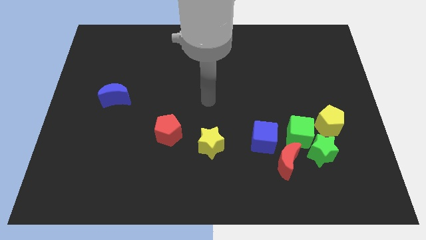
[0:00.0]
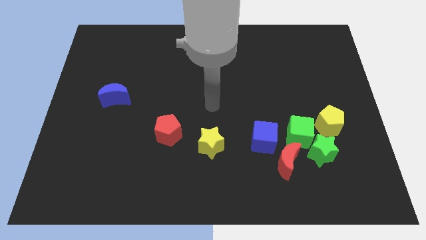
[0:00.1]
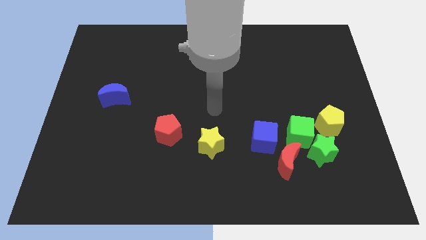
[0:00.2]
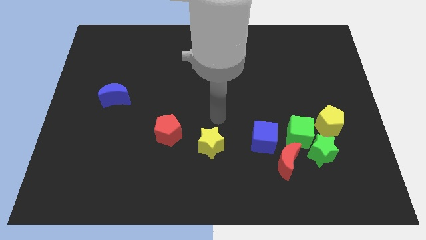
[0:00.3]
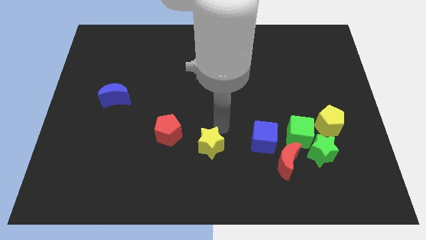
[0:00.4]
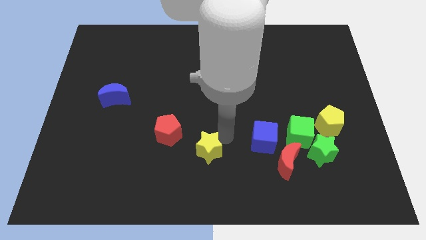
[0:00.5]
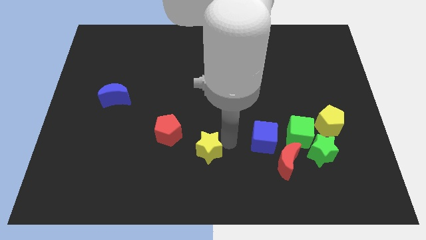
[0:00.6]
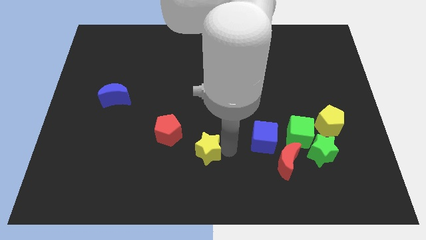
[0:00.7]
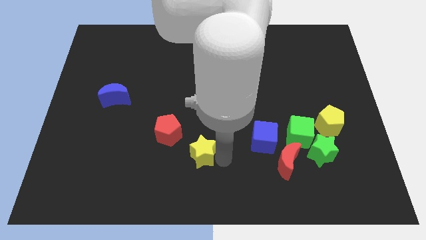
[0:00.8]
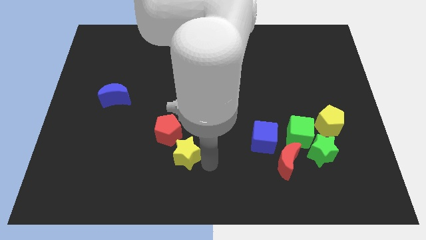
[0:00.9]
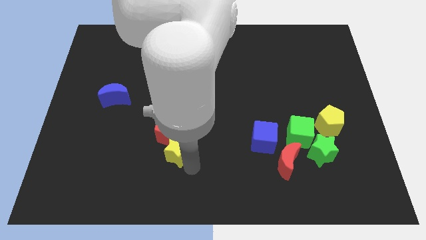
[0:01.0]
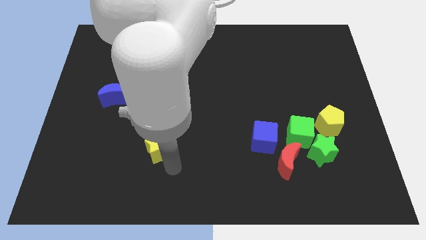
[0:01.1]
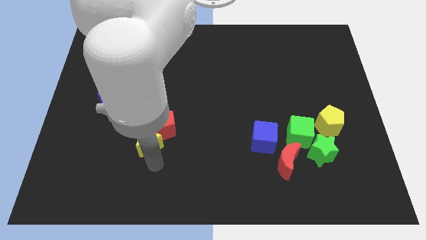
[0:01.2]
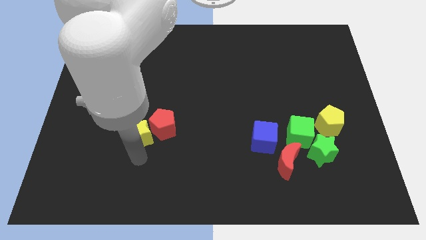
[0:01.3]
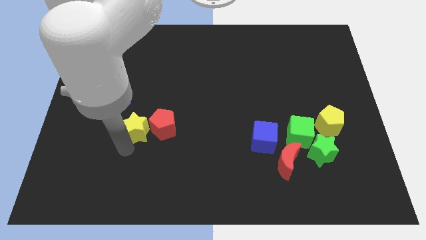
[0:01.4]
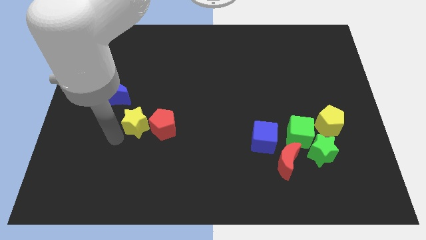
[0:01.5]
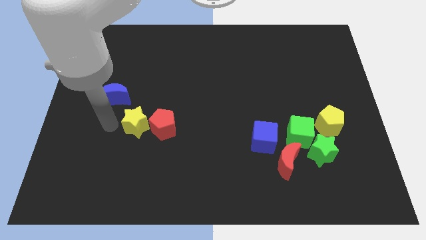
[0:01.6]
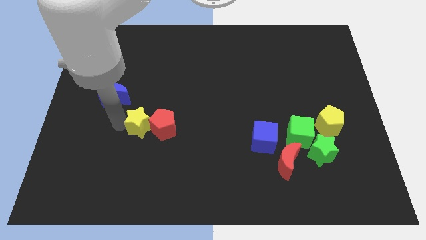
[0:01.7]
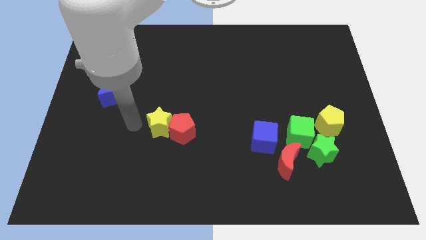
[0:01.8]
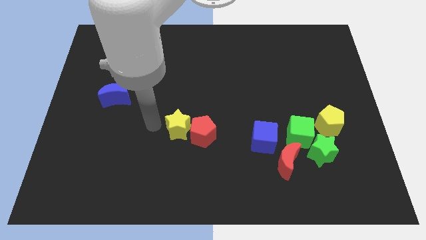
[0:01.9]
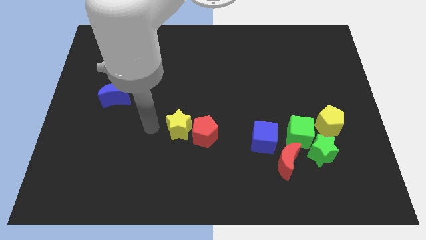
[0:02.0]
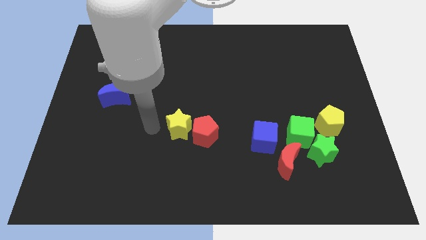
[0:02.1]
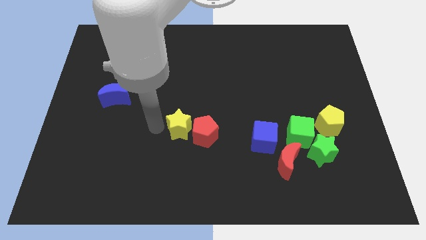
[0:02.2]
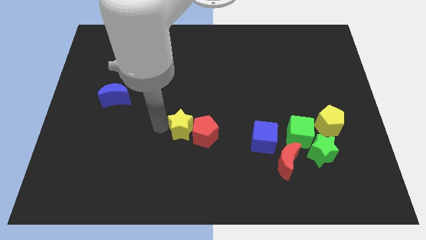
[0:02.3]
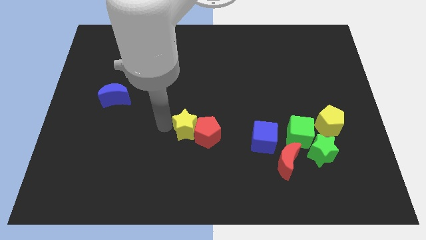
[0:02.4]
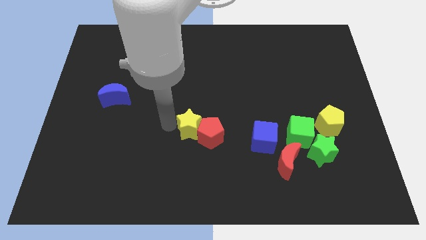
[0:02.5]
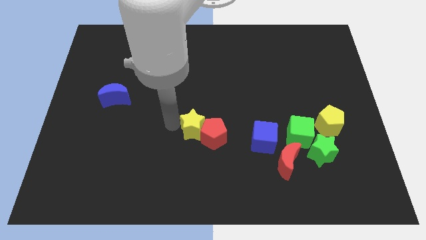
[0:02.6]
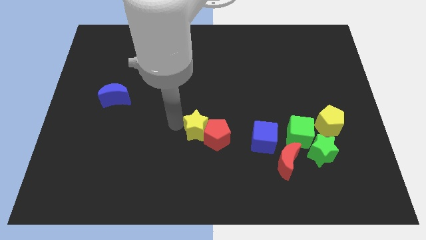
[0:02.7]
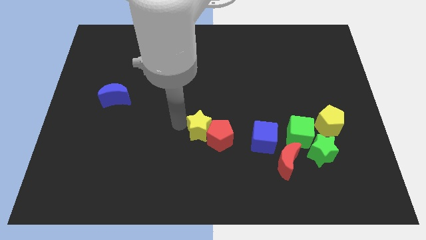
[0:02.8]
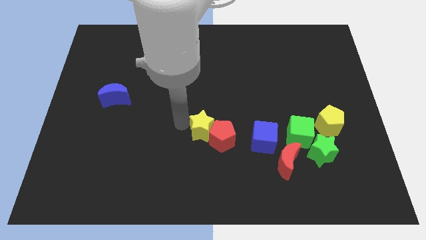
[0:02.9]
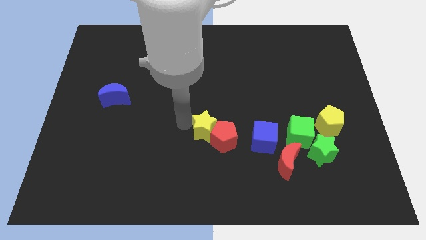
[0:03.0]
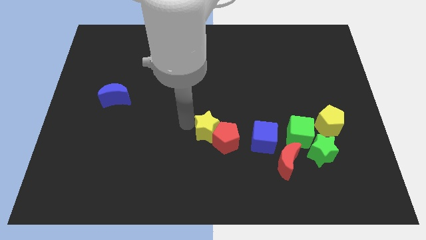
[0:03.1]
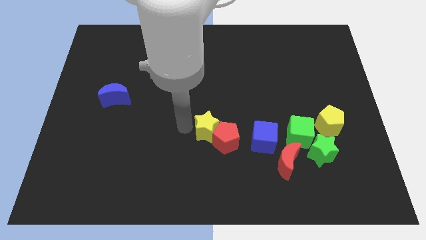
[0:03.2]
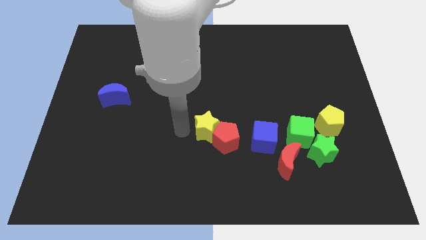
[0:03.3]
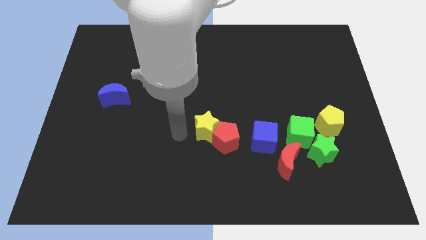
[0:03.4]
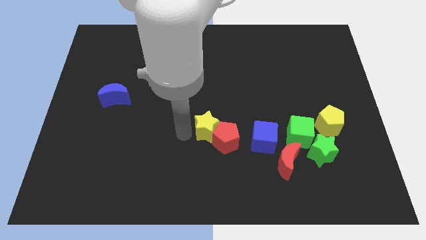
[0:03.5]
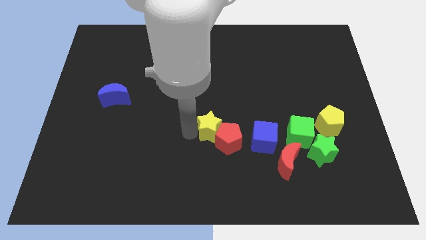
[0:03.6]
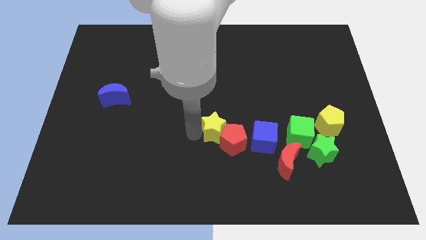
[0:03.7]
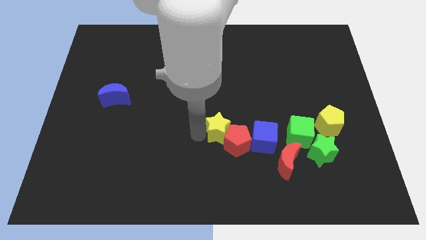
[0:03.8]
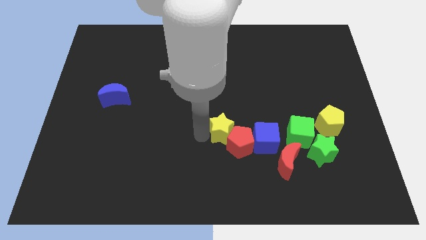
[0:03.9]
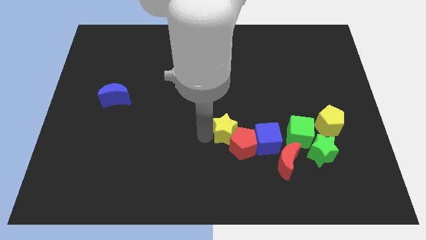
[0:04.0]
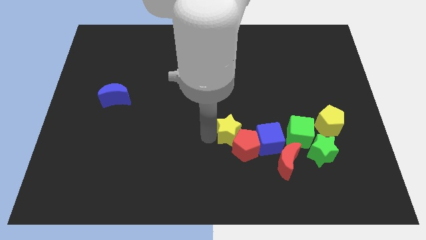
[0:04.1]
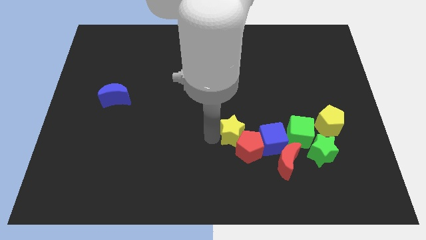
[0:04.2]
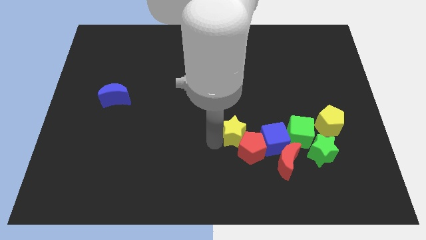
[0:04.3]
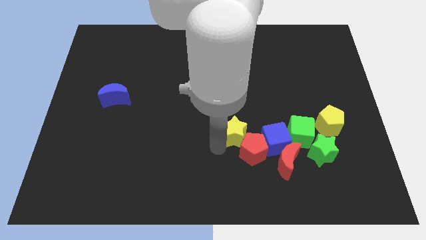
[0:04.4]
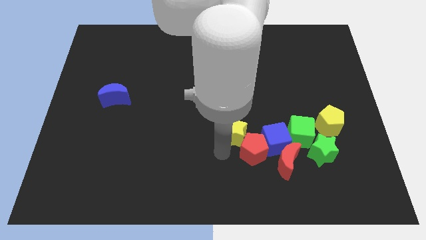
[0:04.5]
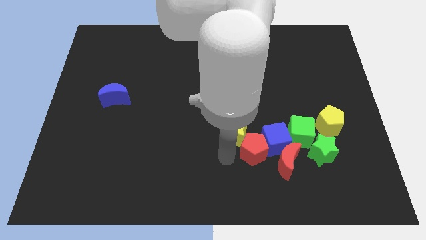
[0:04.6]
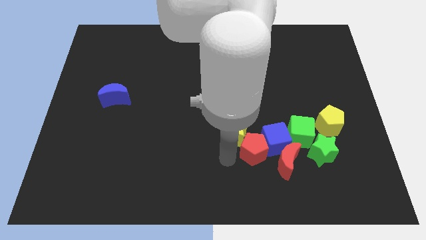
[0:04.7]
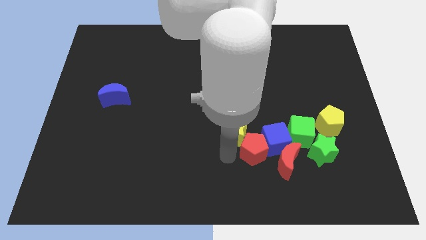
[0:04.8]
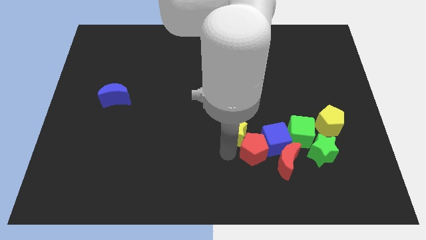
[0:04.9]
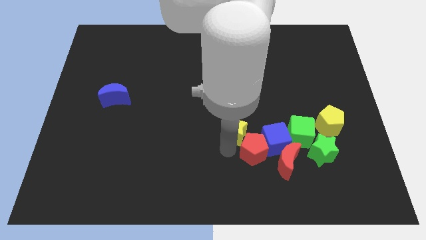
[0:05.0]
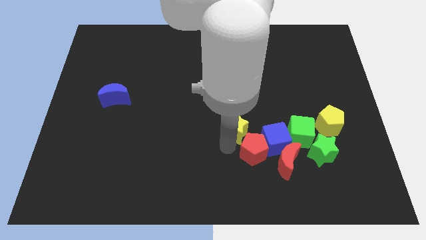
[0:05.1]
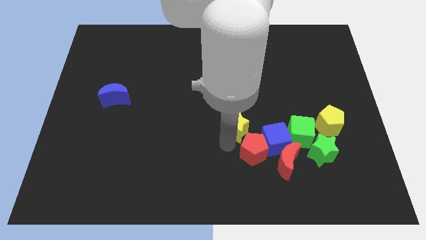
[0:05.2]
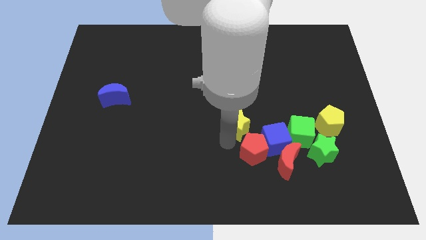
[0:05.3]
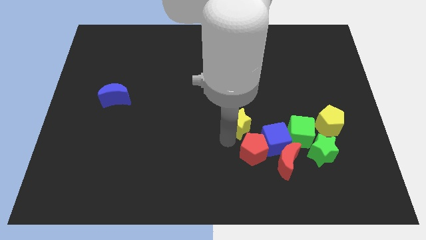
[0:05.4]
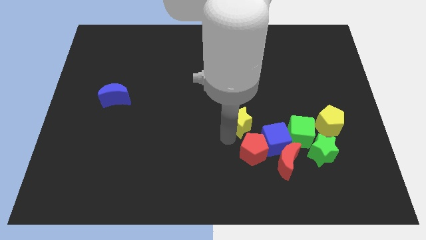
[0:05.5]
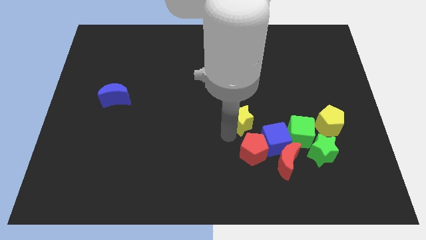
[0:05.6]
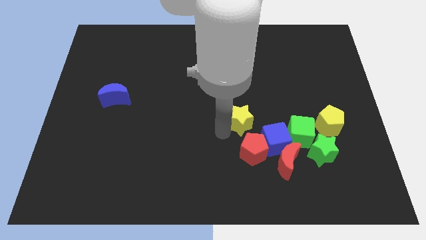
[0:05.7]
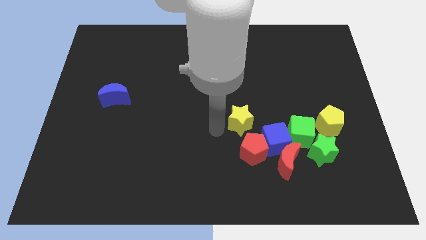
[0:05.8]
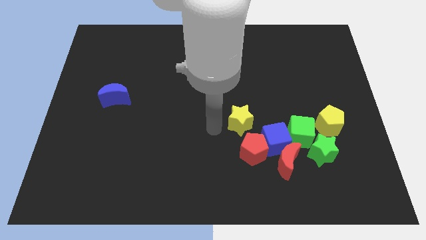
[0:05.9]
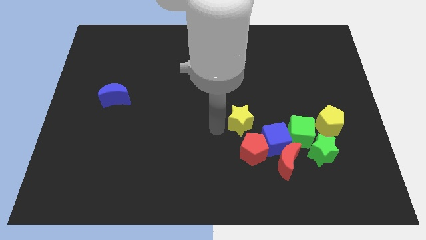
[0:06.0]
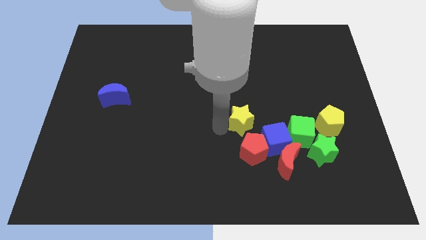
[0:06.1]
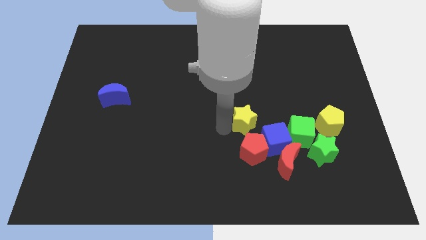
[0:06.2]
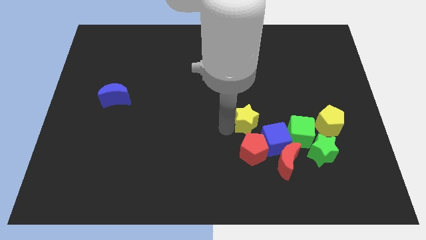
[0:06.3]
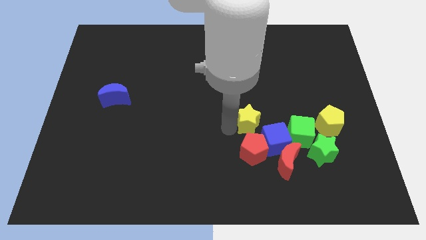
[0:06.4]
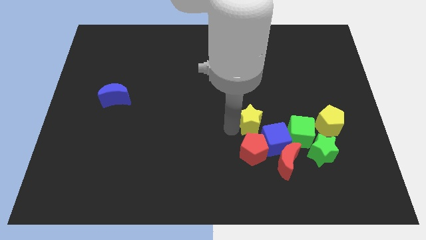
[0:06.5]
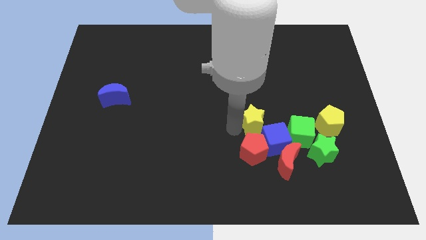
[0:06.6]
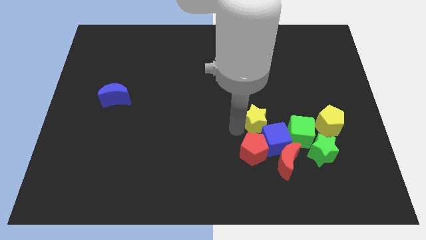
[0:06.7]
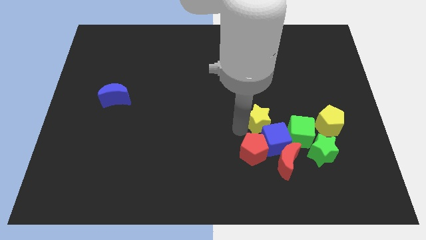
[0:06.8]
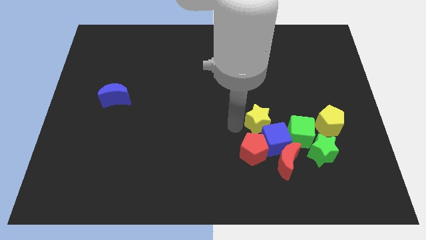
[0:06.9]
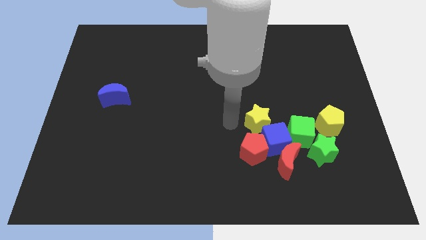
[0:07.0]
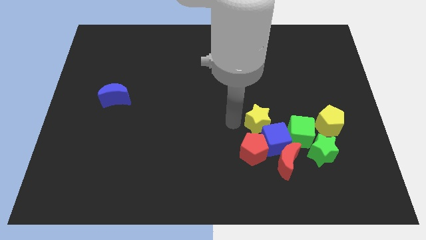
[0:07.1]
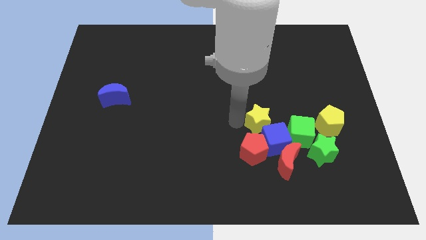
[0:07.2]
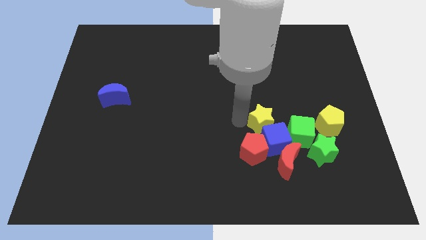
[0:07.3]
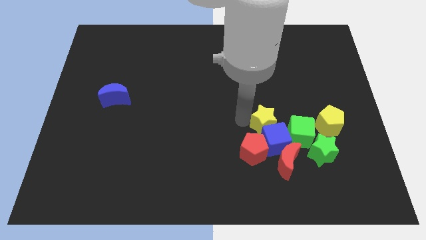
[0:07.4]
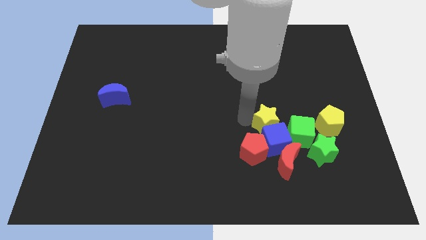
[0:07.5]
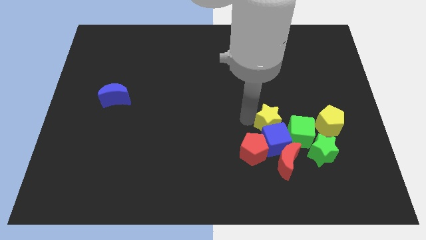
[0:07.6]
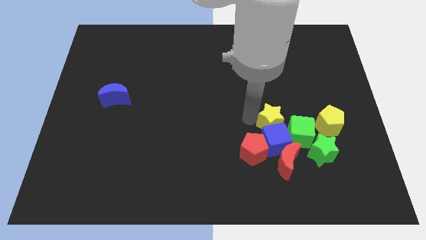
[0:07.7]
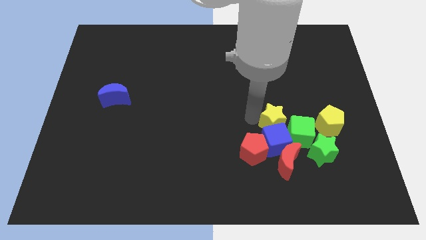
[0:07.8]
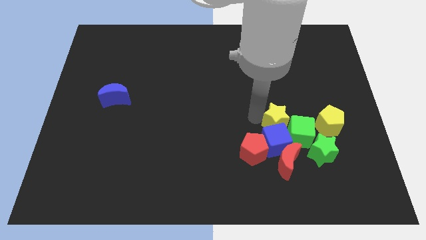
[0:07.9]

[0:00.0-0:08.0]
move the yellow star close to the green cube

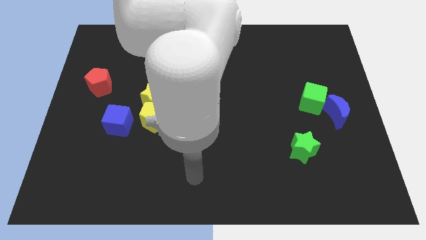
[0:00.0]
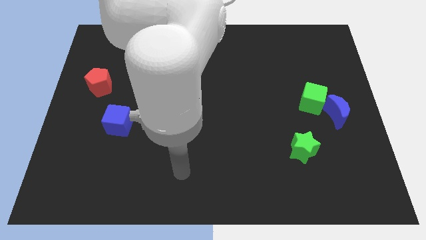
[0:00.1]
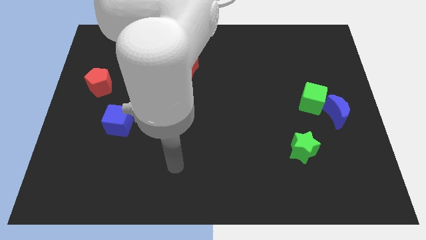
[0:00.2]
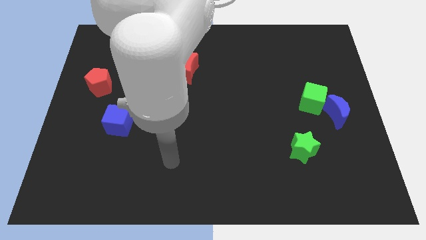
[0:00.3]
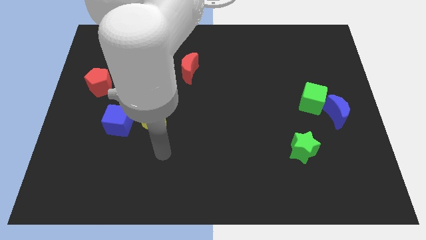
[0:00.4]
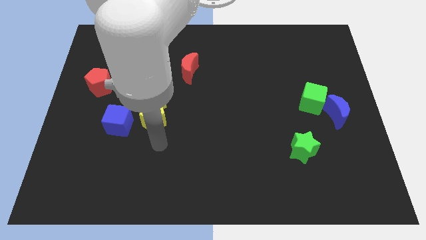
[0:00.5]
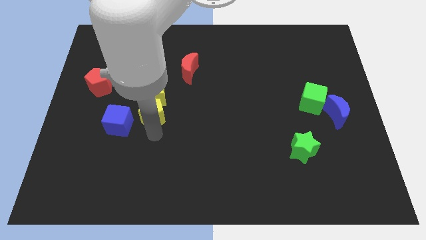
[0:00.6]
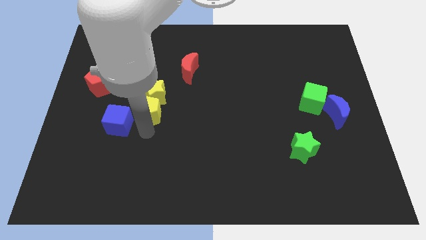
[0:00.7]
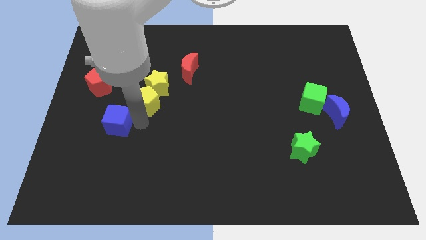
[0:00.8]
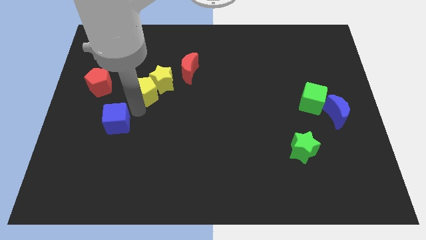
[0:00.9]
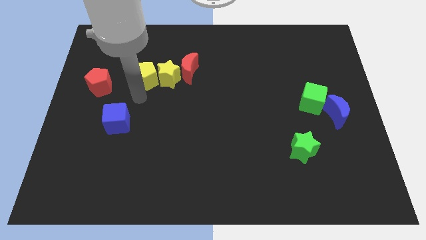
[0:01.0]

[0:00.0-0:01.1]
slide the yellow star to the red moon
